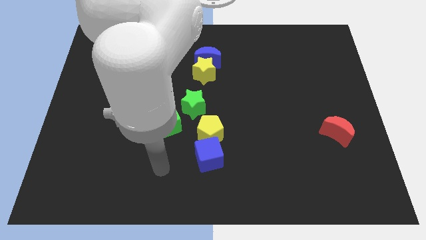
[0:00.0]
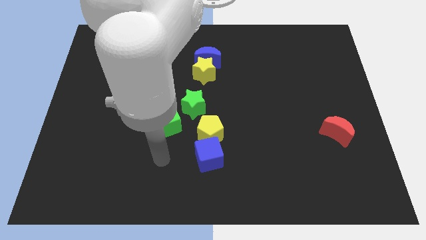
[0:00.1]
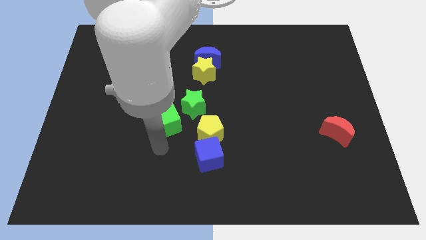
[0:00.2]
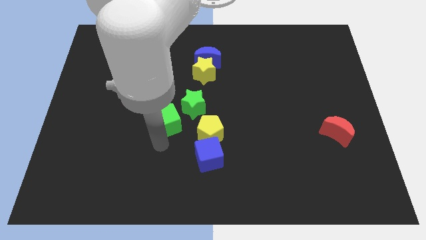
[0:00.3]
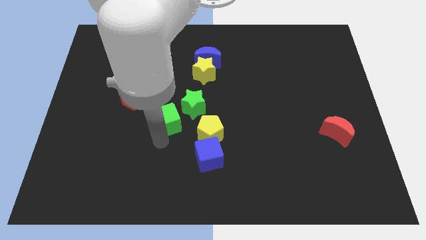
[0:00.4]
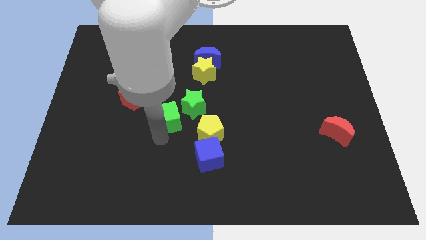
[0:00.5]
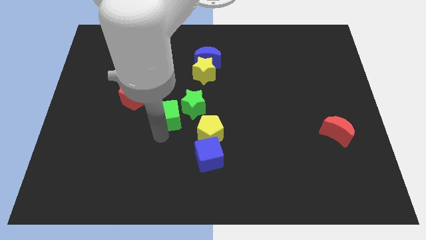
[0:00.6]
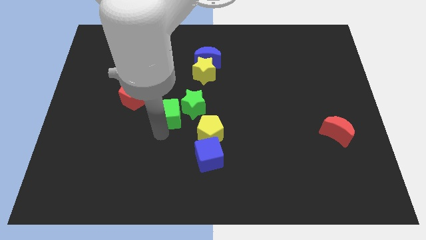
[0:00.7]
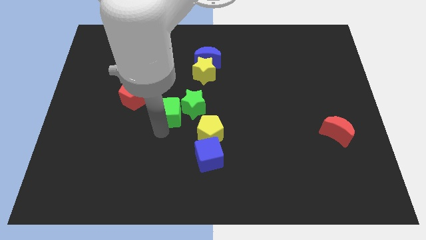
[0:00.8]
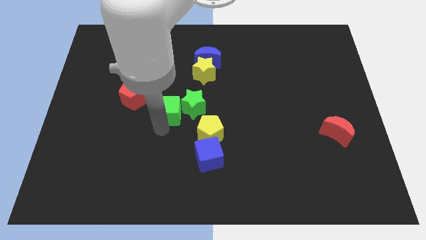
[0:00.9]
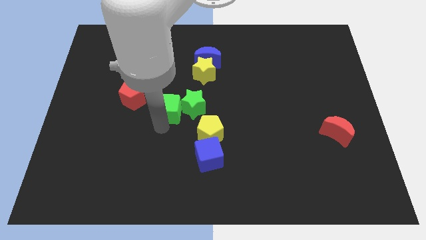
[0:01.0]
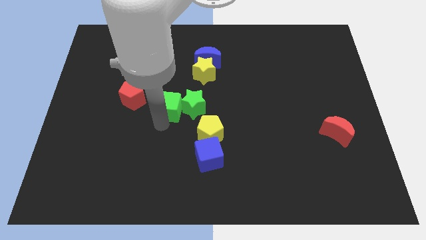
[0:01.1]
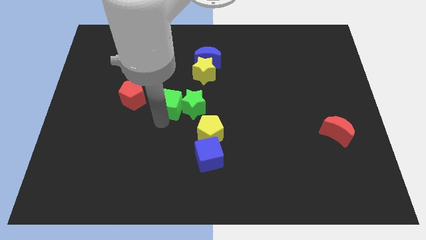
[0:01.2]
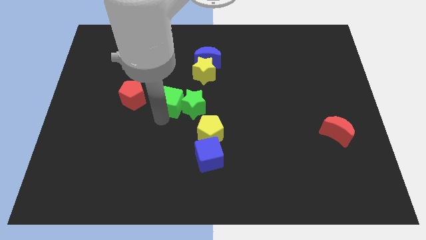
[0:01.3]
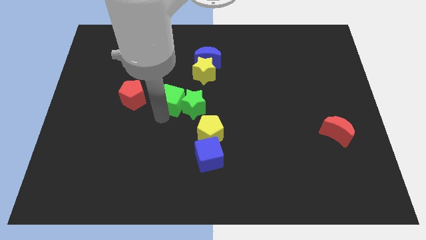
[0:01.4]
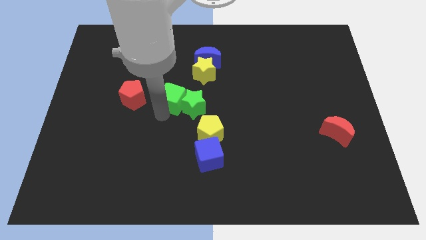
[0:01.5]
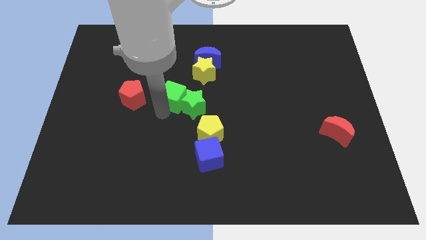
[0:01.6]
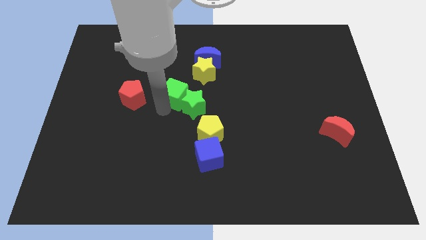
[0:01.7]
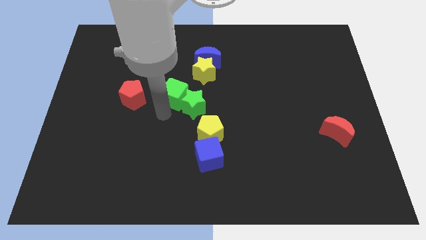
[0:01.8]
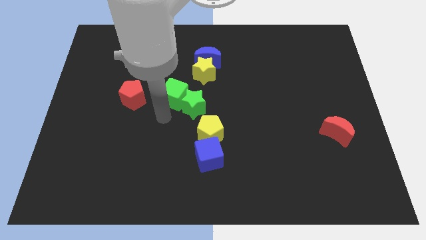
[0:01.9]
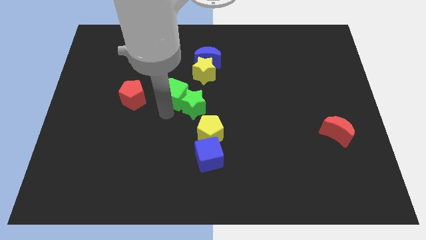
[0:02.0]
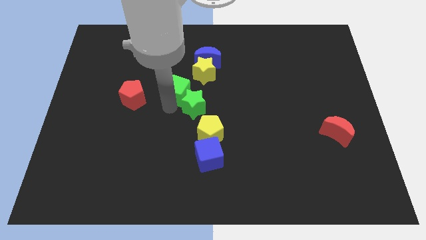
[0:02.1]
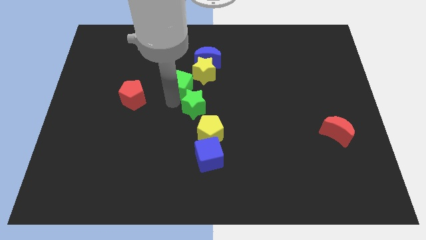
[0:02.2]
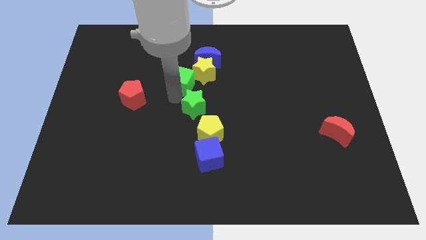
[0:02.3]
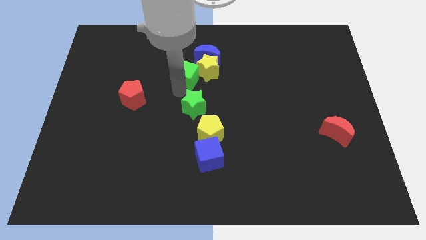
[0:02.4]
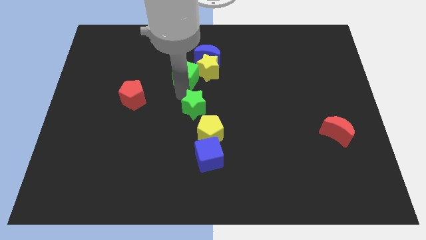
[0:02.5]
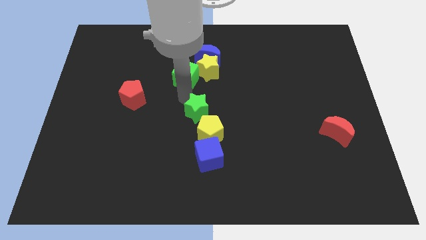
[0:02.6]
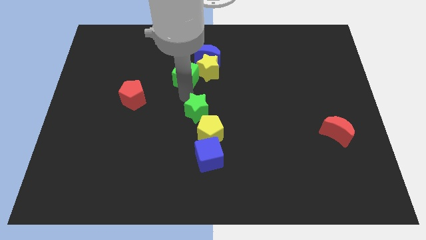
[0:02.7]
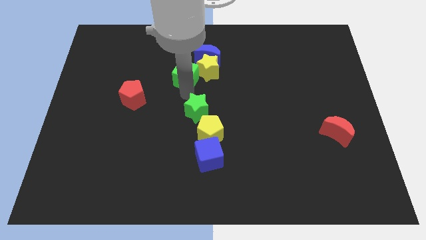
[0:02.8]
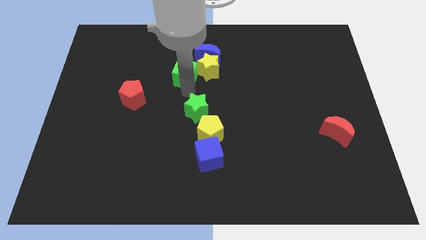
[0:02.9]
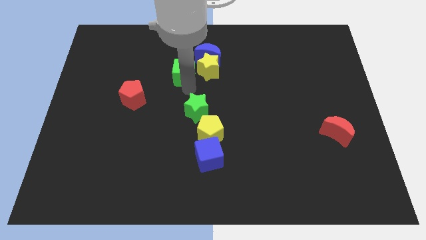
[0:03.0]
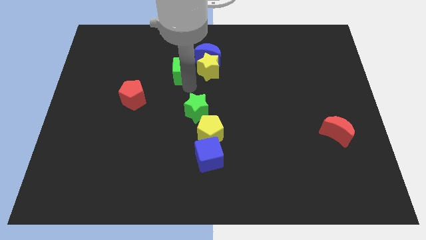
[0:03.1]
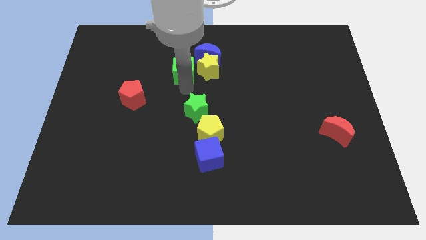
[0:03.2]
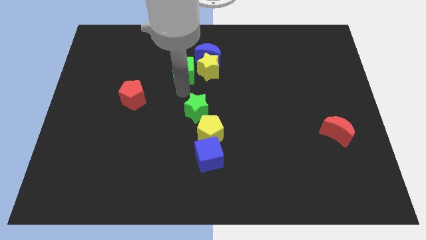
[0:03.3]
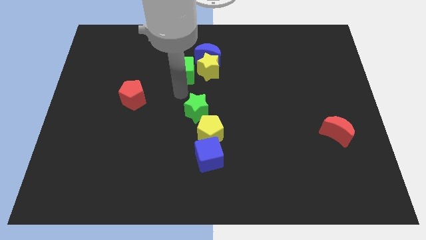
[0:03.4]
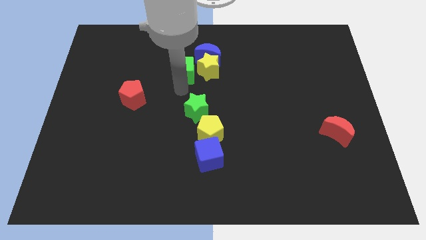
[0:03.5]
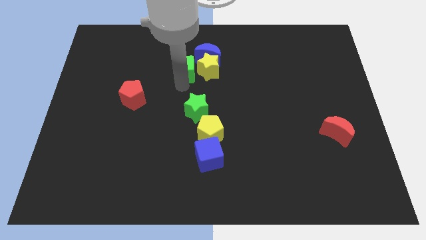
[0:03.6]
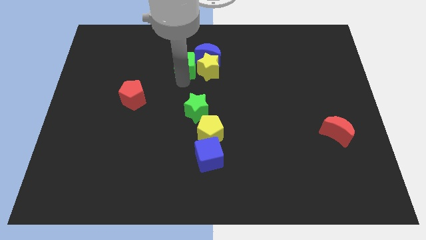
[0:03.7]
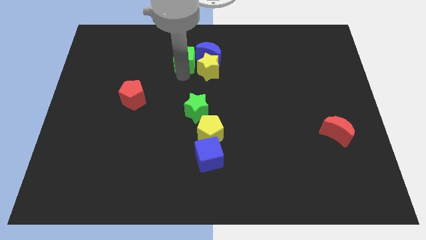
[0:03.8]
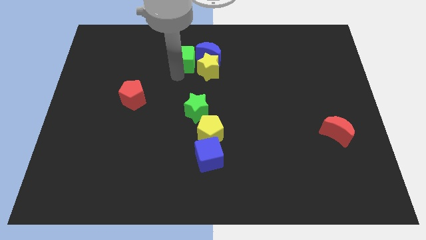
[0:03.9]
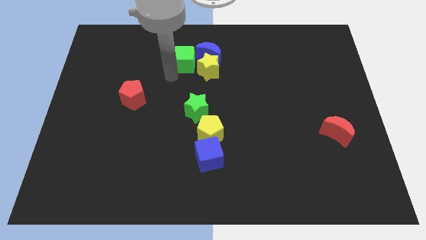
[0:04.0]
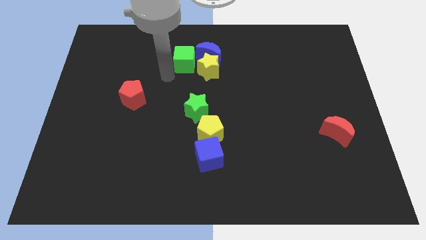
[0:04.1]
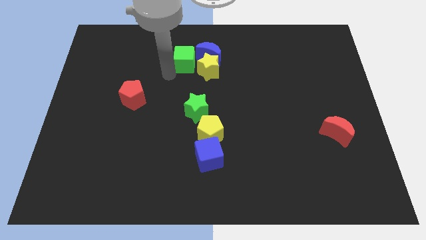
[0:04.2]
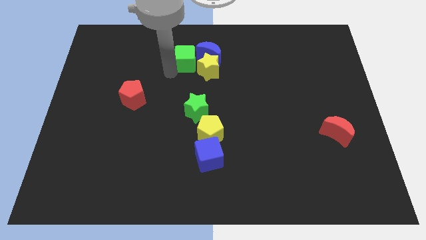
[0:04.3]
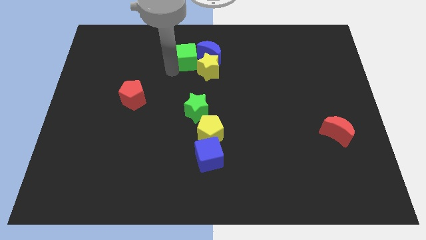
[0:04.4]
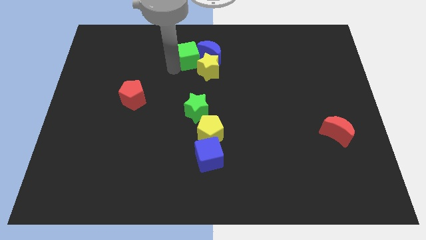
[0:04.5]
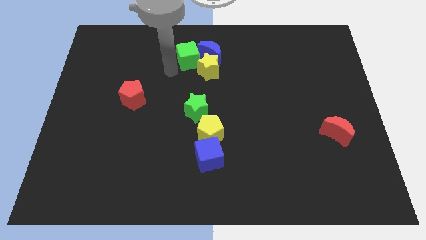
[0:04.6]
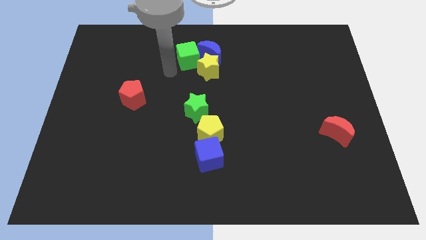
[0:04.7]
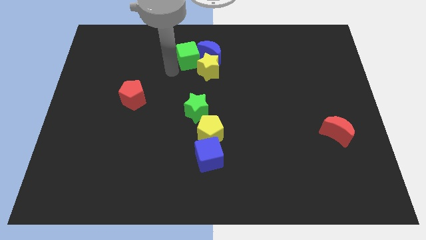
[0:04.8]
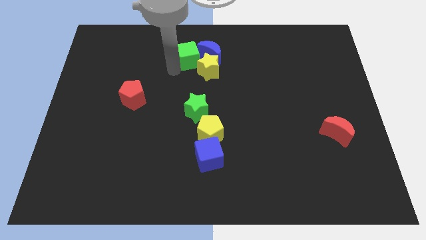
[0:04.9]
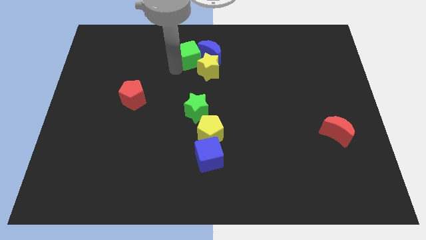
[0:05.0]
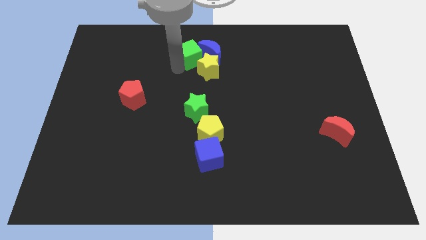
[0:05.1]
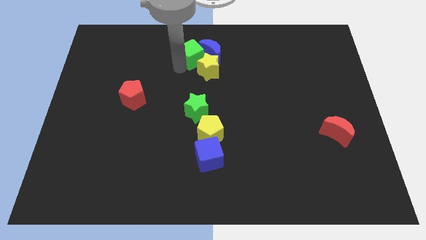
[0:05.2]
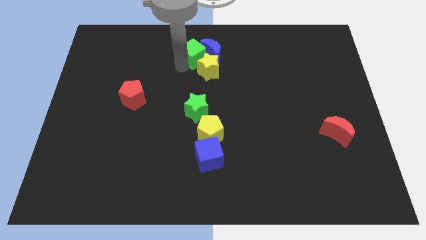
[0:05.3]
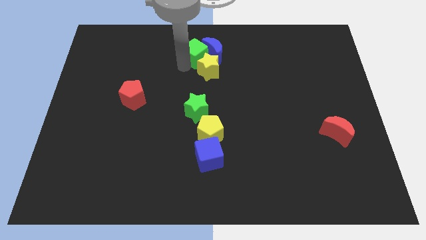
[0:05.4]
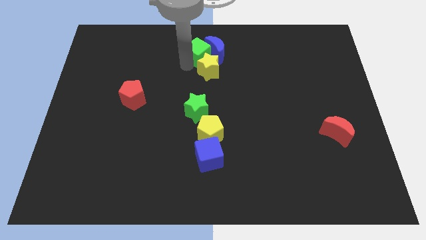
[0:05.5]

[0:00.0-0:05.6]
push the green cube to the top

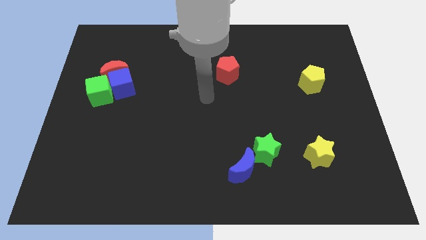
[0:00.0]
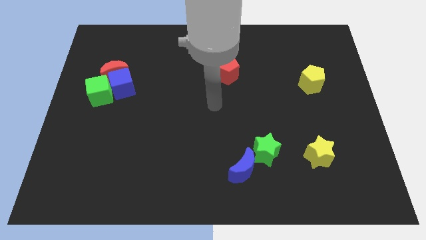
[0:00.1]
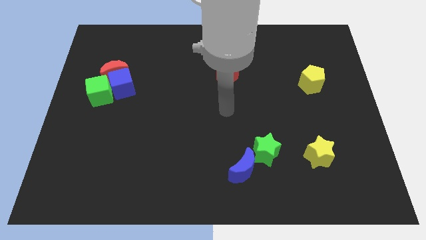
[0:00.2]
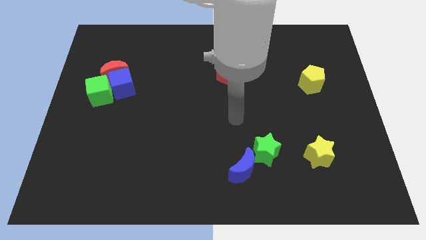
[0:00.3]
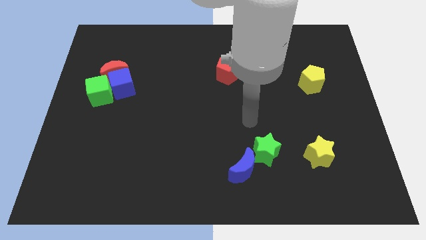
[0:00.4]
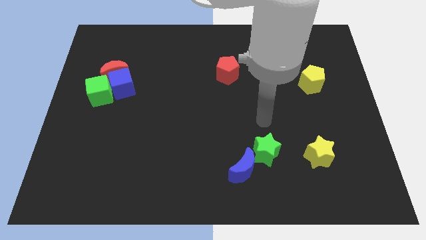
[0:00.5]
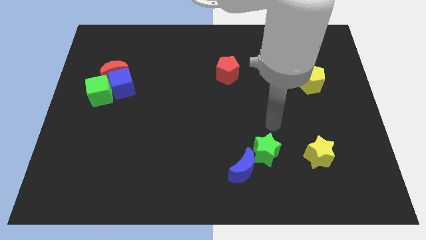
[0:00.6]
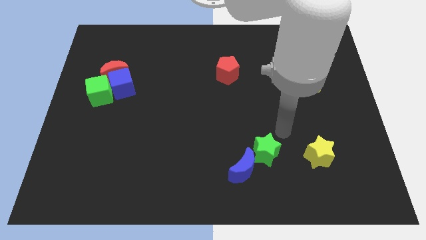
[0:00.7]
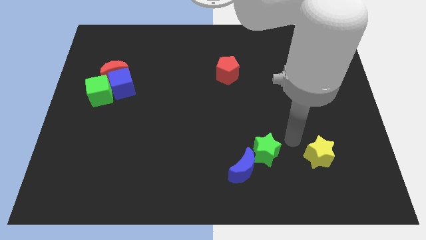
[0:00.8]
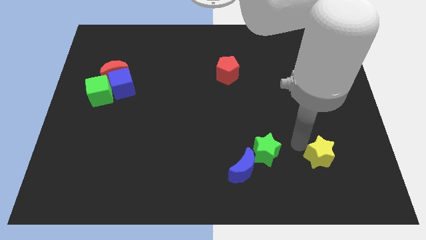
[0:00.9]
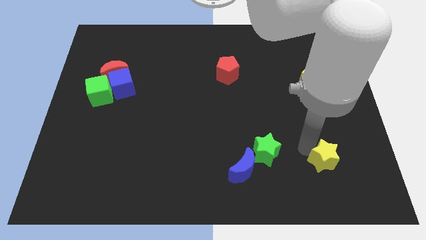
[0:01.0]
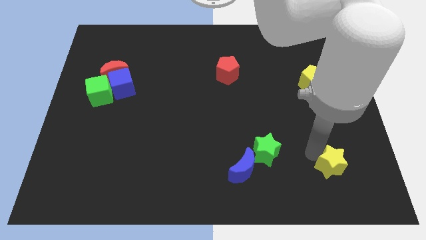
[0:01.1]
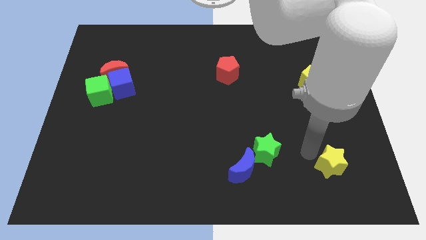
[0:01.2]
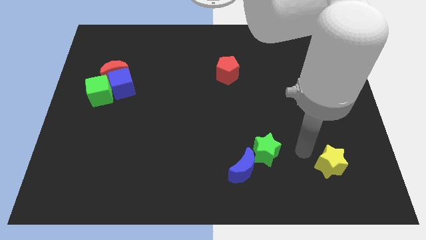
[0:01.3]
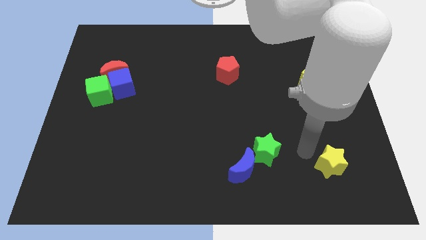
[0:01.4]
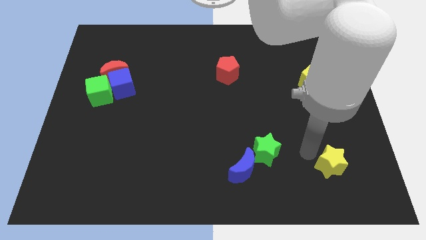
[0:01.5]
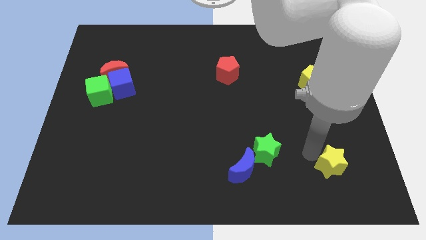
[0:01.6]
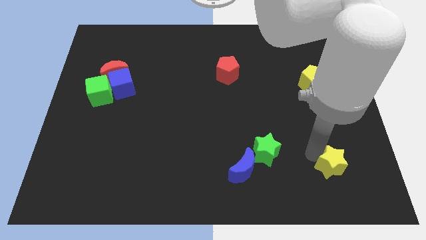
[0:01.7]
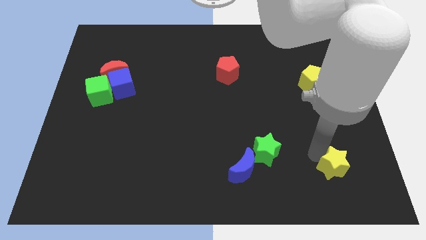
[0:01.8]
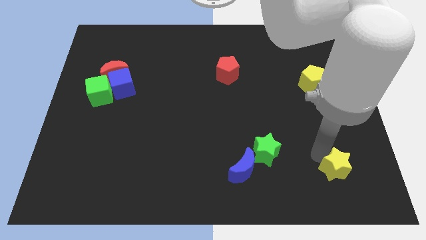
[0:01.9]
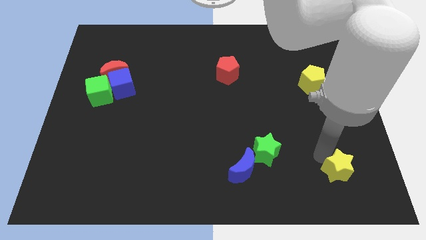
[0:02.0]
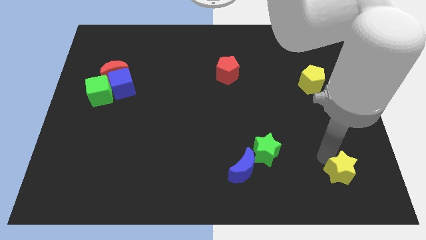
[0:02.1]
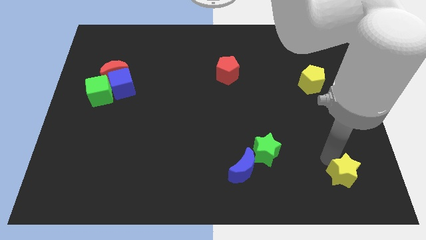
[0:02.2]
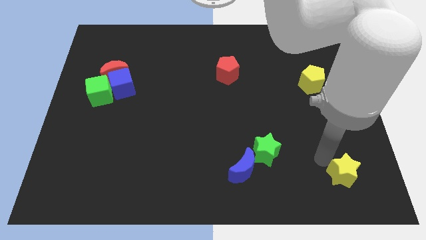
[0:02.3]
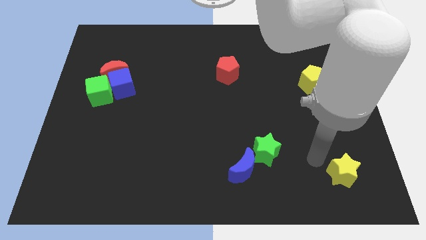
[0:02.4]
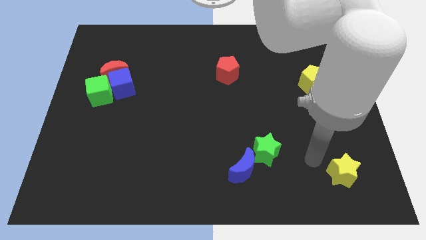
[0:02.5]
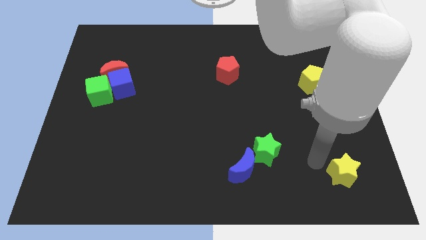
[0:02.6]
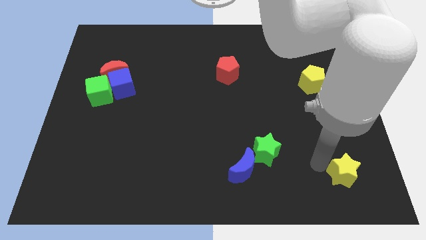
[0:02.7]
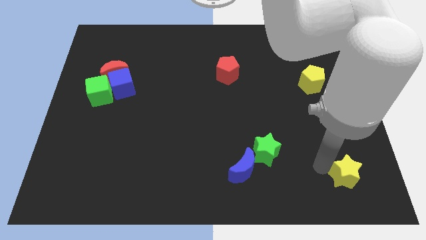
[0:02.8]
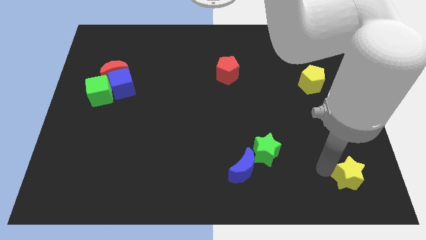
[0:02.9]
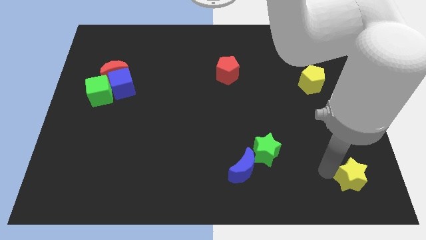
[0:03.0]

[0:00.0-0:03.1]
slide the yellow star to the bottom right corner
